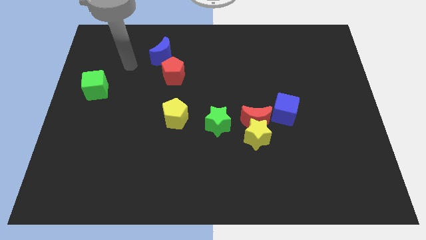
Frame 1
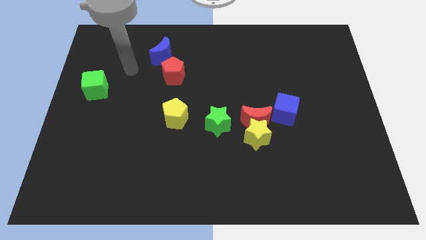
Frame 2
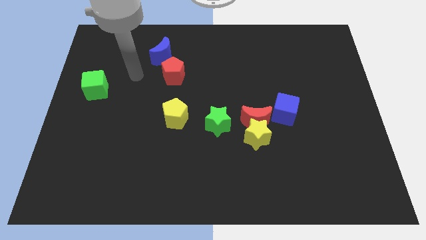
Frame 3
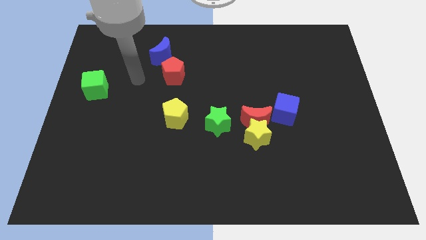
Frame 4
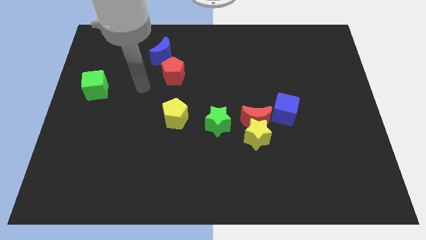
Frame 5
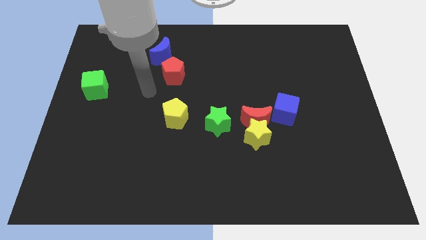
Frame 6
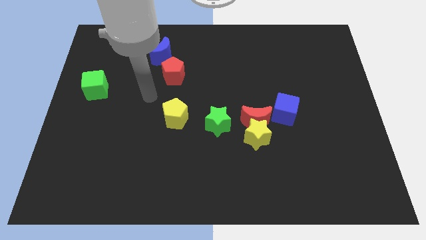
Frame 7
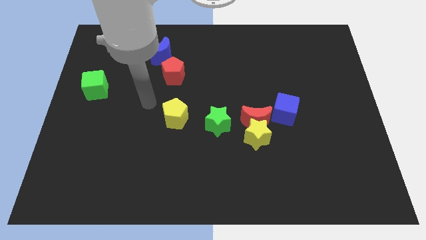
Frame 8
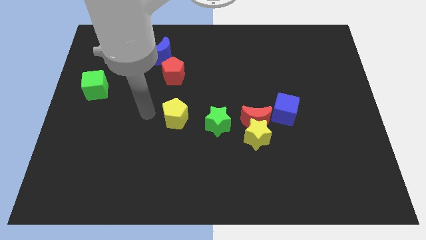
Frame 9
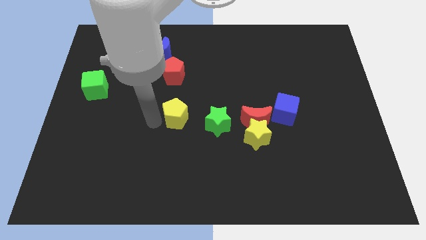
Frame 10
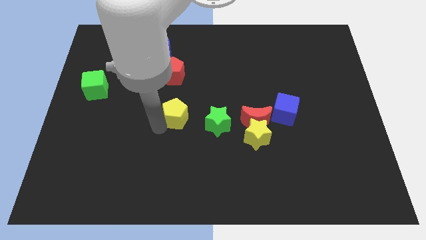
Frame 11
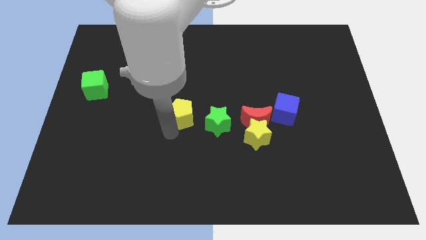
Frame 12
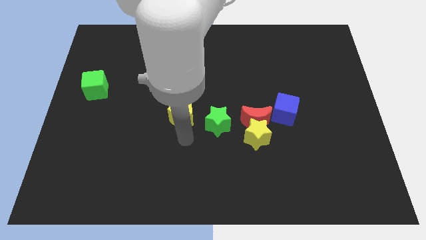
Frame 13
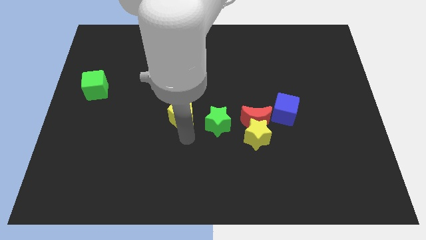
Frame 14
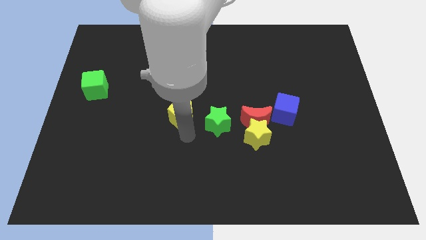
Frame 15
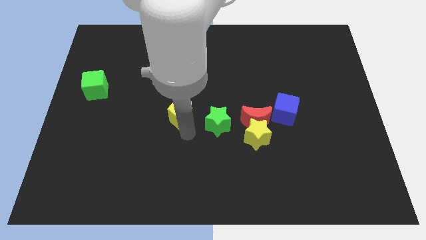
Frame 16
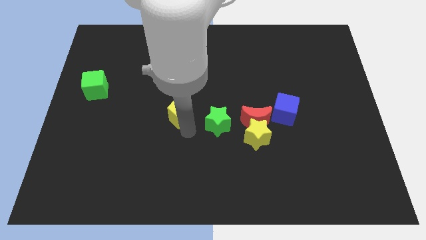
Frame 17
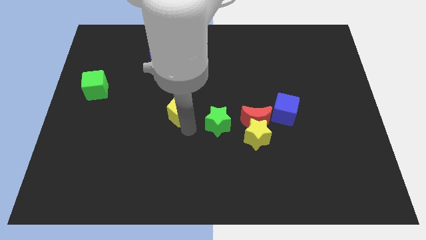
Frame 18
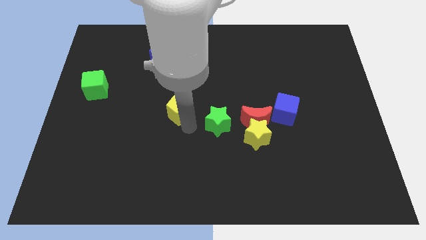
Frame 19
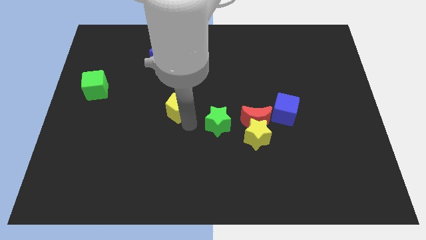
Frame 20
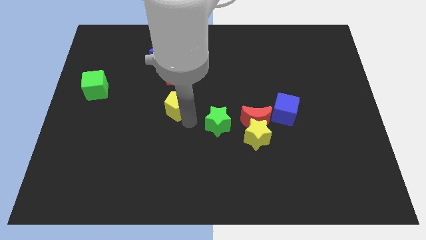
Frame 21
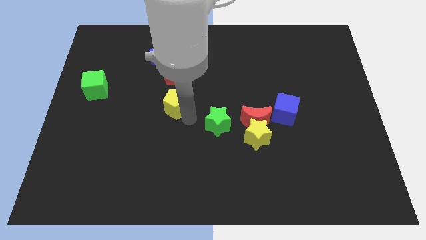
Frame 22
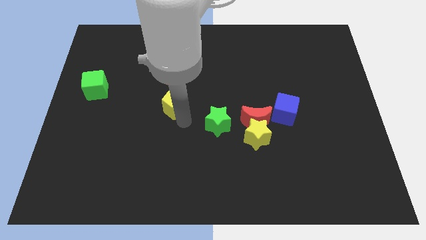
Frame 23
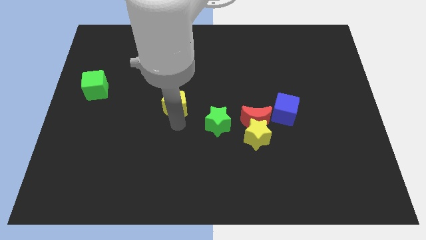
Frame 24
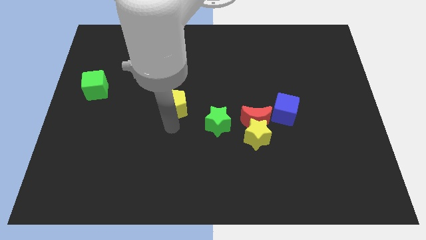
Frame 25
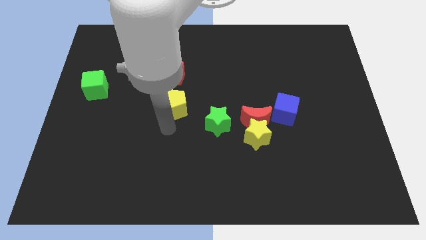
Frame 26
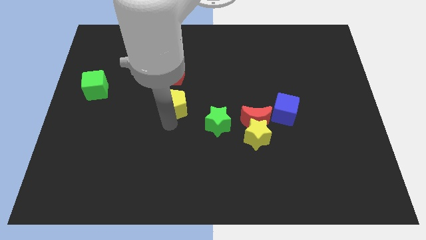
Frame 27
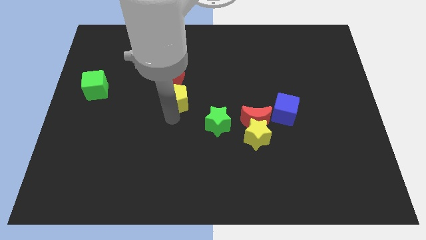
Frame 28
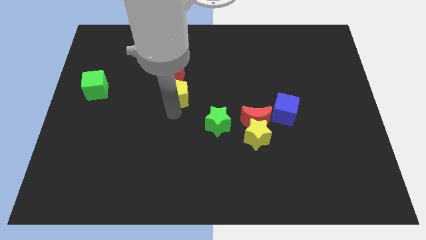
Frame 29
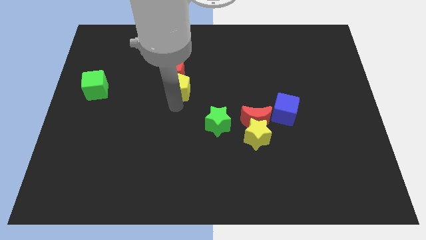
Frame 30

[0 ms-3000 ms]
slide the yellow pentagon a bit upwards

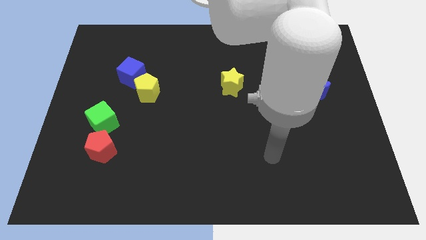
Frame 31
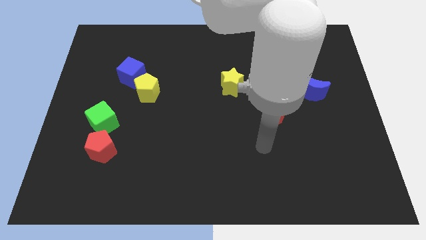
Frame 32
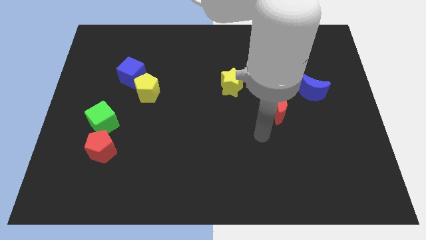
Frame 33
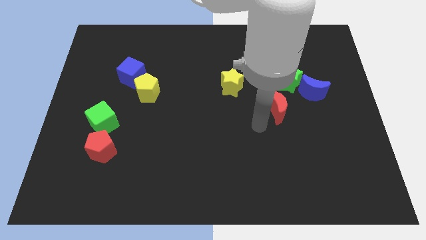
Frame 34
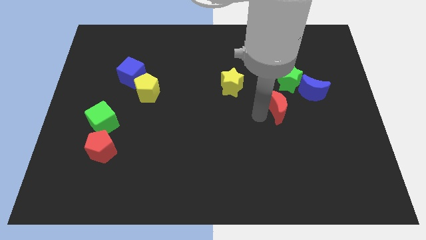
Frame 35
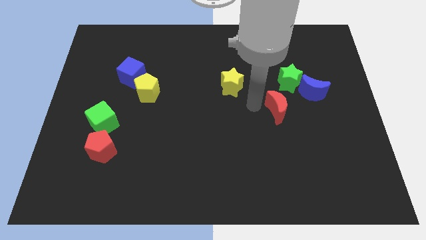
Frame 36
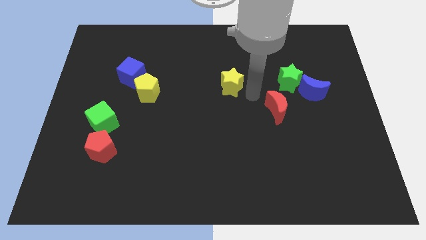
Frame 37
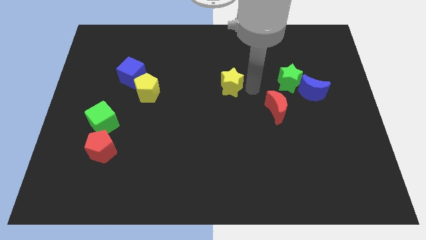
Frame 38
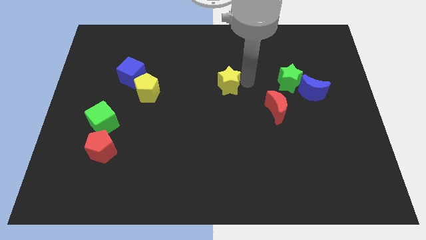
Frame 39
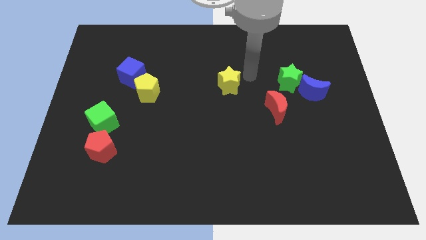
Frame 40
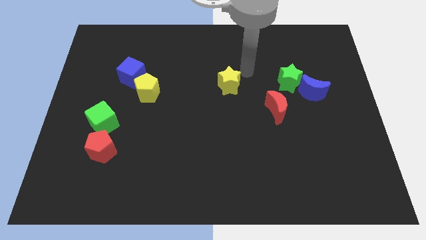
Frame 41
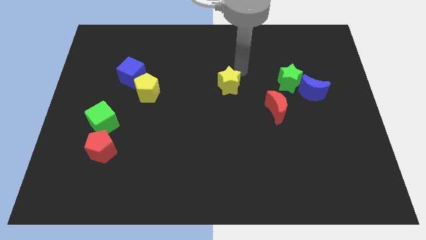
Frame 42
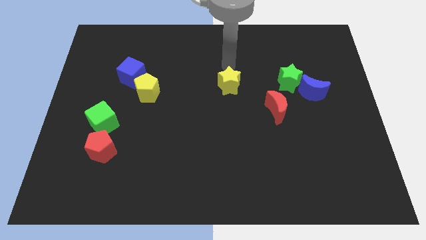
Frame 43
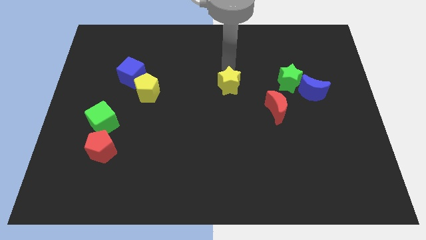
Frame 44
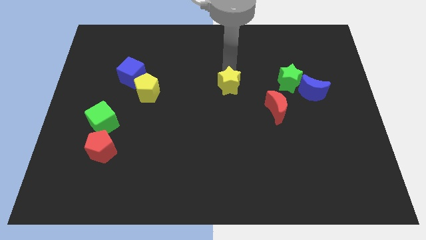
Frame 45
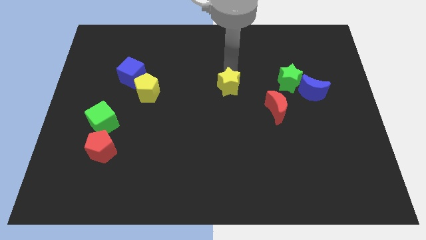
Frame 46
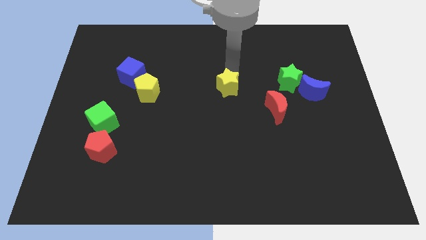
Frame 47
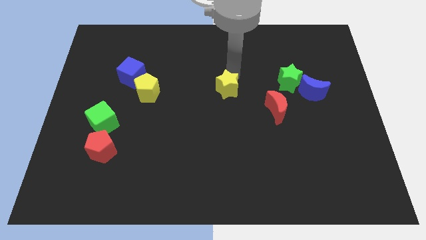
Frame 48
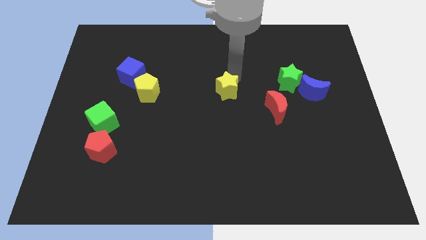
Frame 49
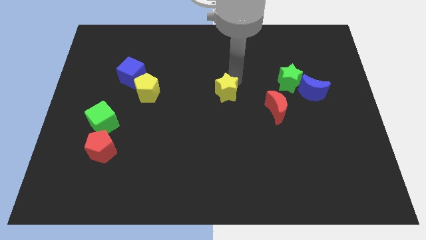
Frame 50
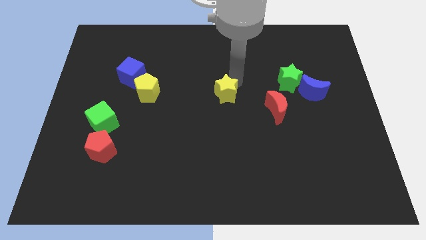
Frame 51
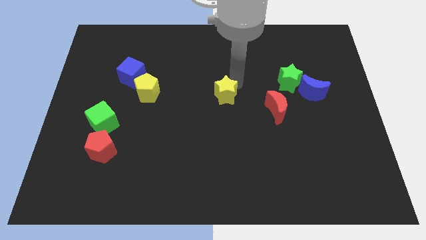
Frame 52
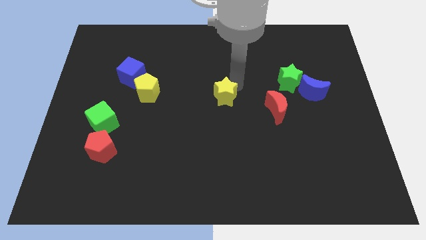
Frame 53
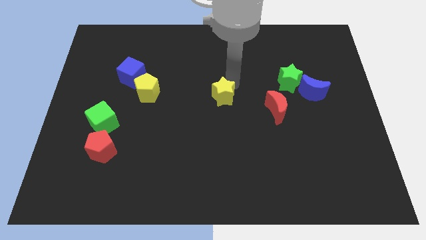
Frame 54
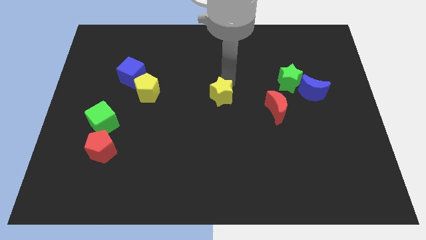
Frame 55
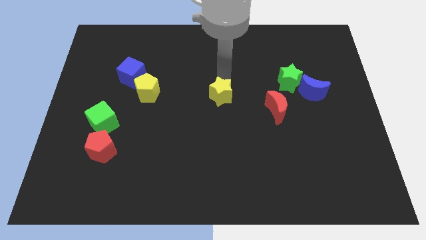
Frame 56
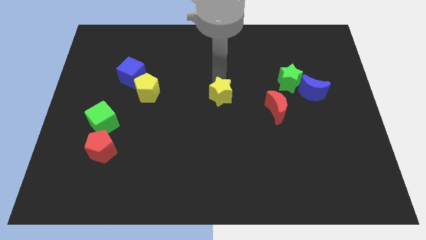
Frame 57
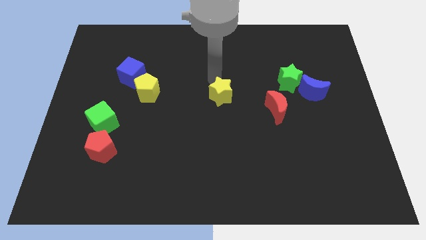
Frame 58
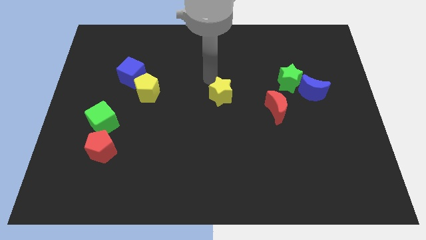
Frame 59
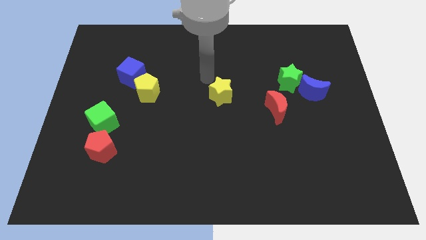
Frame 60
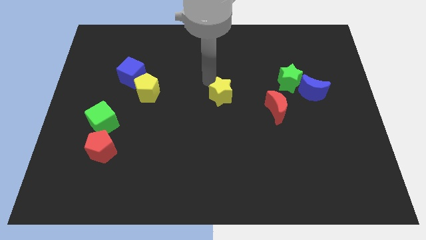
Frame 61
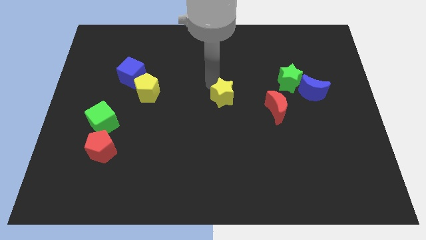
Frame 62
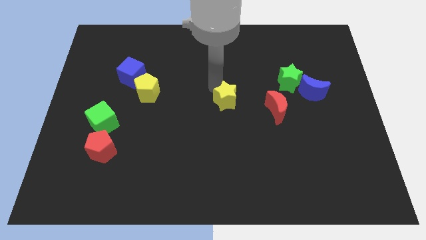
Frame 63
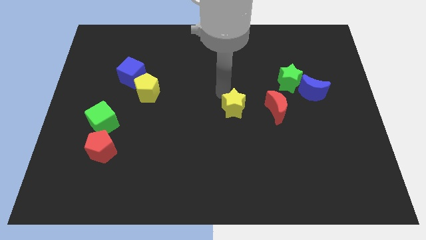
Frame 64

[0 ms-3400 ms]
push the yellow star a little bit down

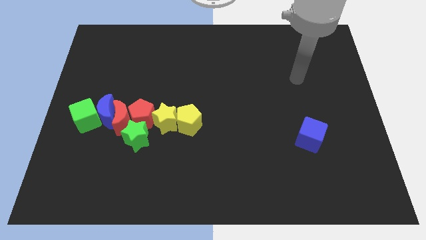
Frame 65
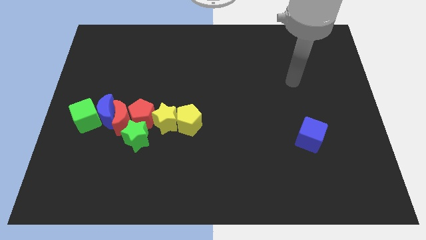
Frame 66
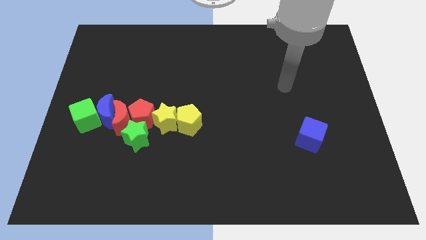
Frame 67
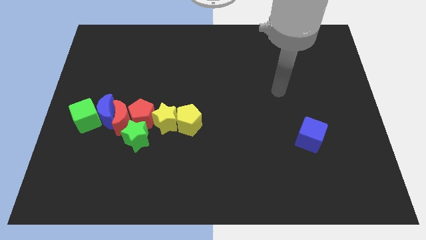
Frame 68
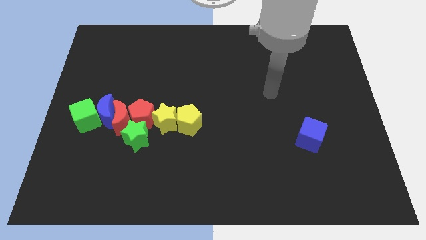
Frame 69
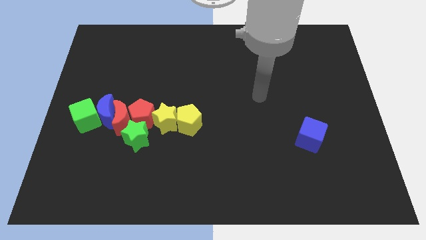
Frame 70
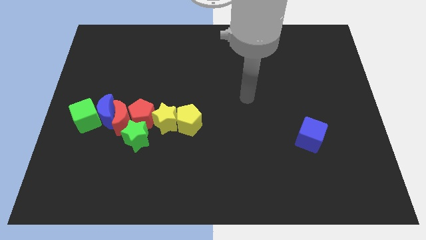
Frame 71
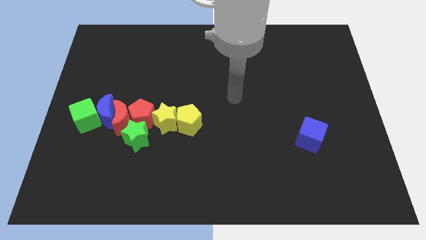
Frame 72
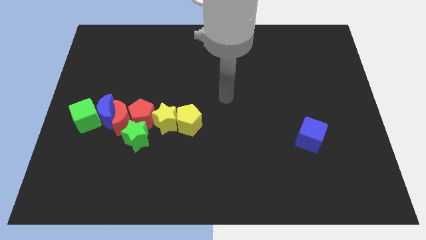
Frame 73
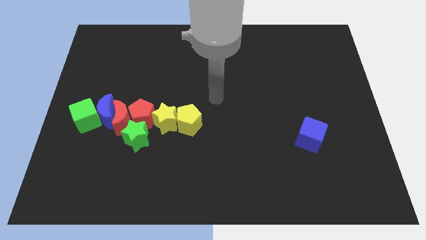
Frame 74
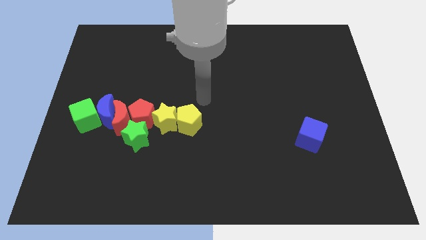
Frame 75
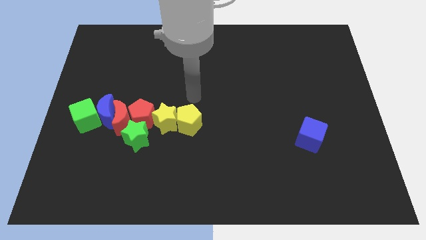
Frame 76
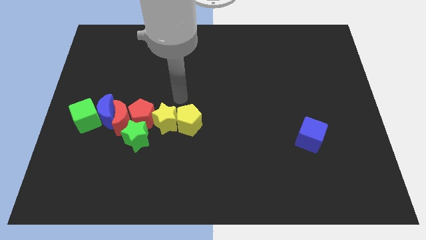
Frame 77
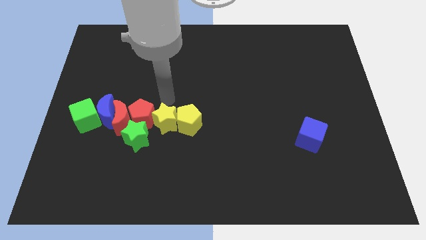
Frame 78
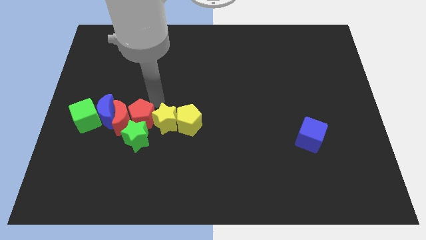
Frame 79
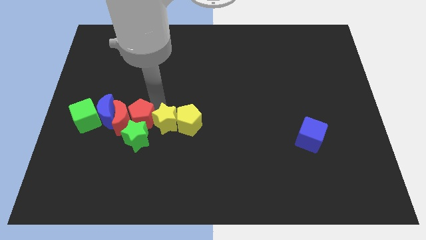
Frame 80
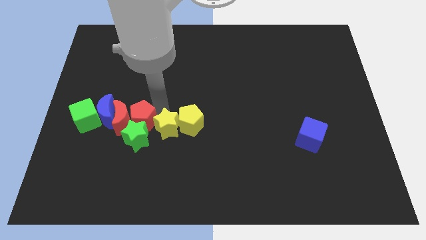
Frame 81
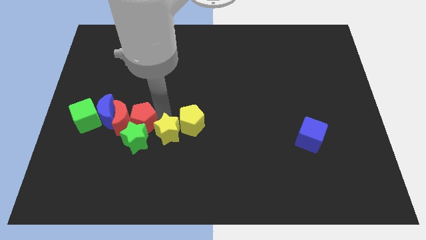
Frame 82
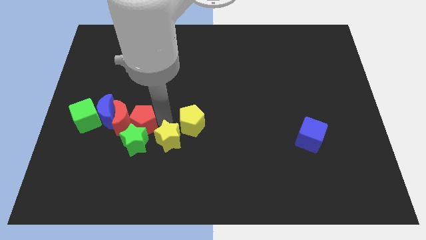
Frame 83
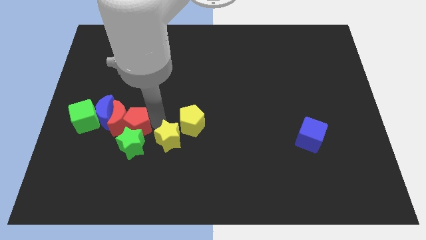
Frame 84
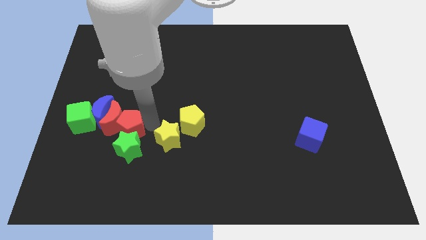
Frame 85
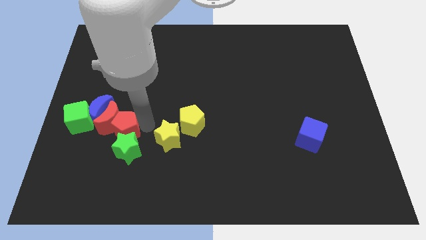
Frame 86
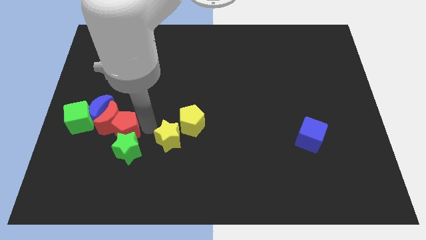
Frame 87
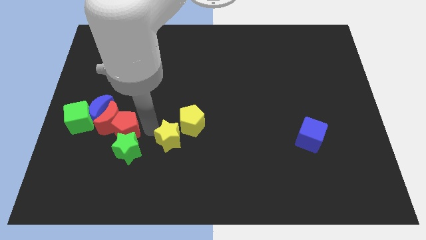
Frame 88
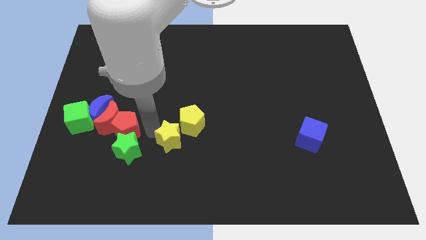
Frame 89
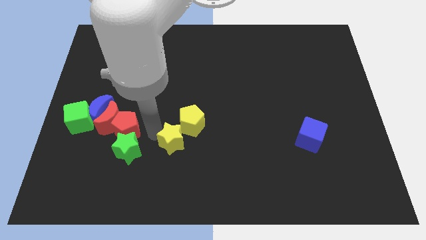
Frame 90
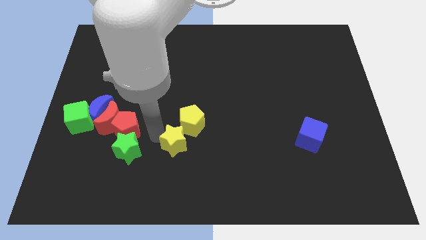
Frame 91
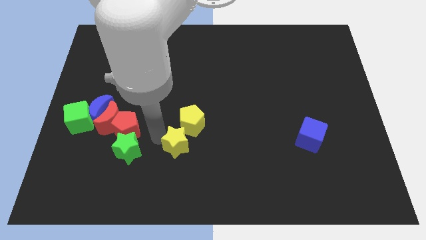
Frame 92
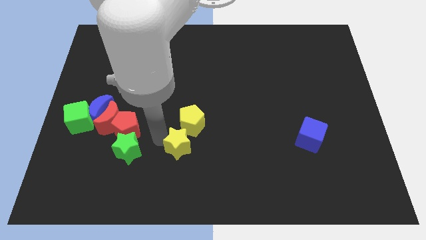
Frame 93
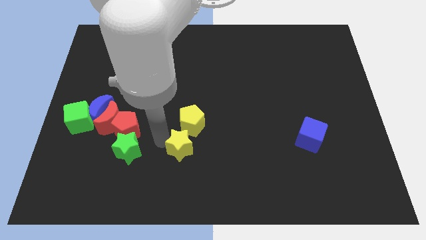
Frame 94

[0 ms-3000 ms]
slide the yellow star a little diagonally down and to the right
